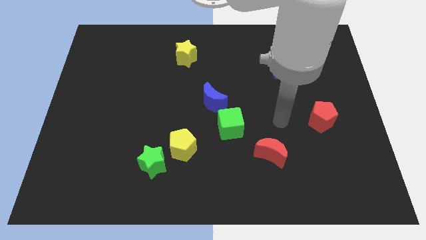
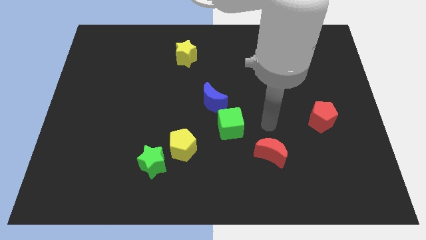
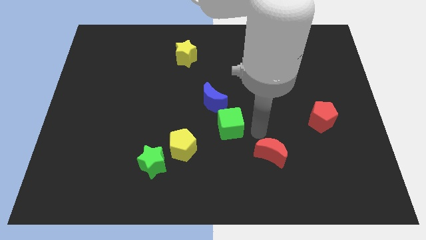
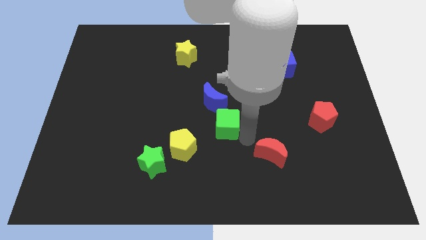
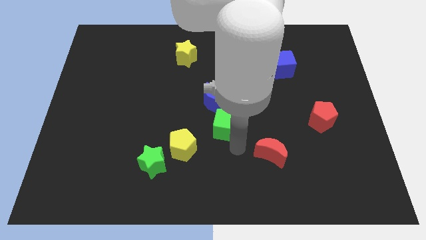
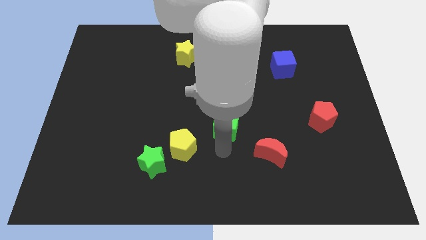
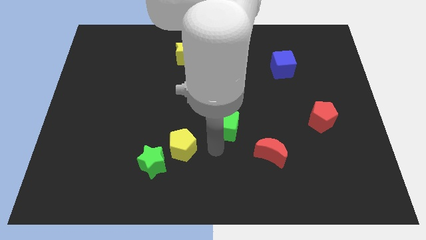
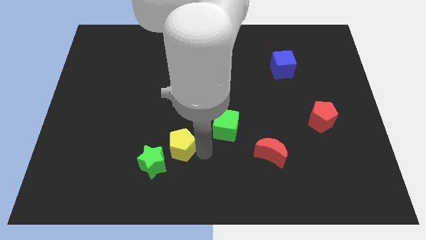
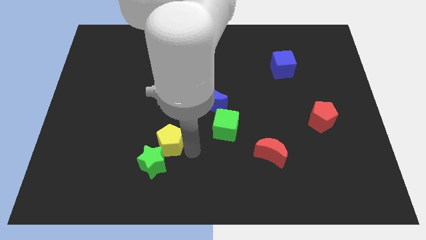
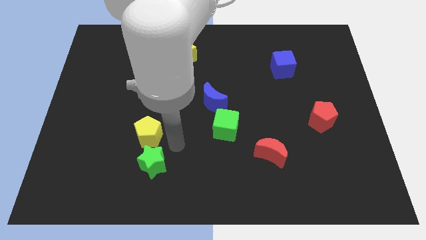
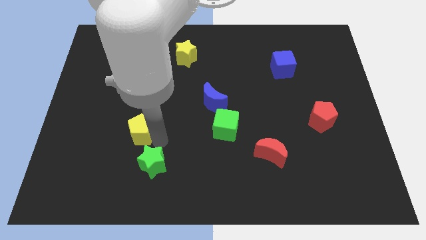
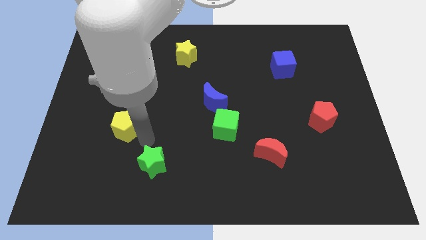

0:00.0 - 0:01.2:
move the green star away from the yellow pentagon

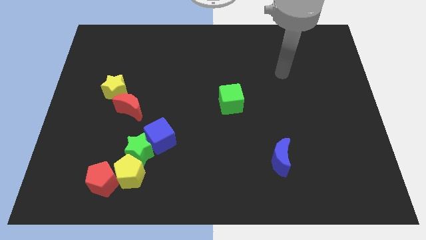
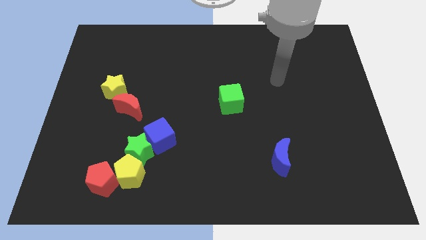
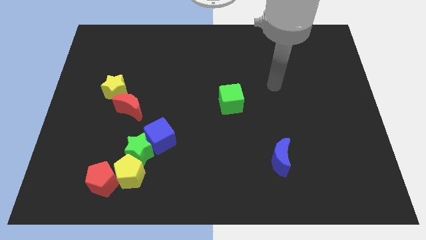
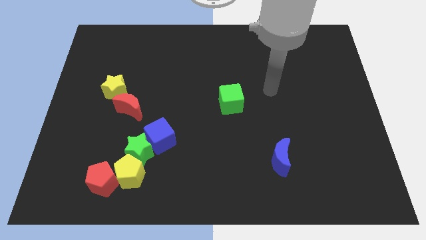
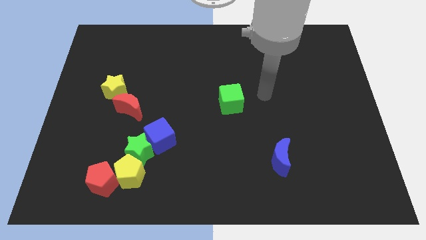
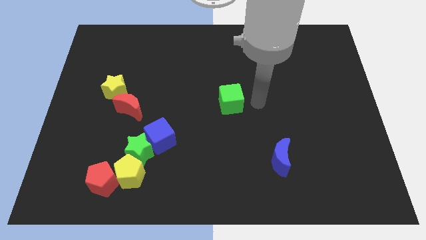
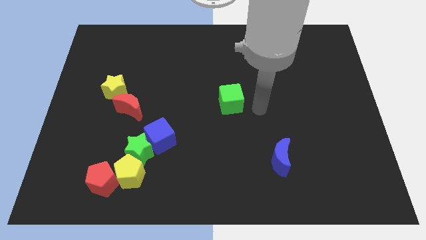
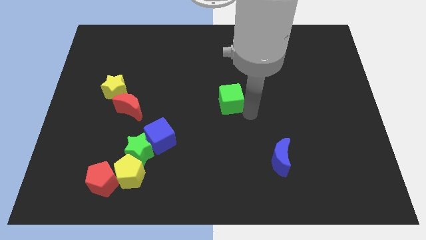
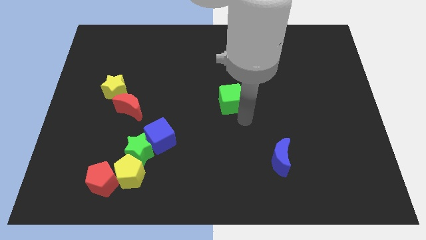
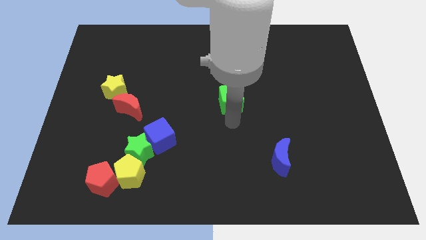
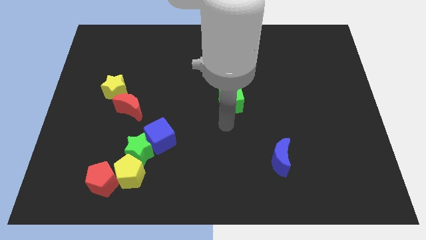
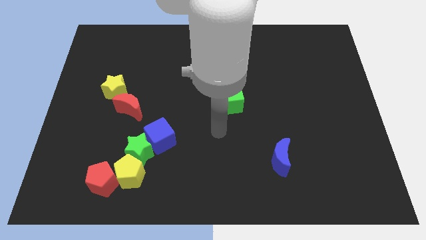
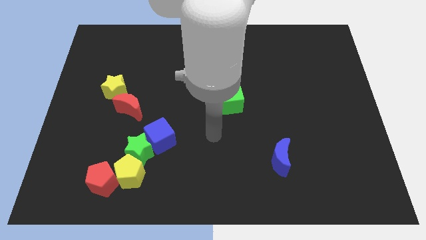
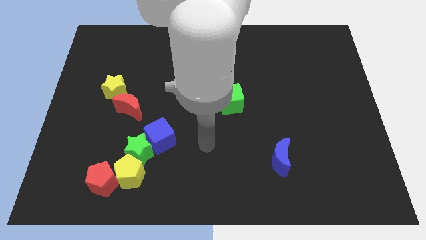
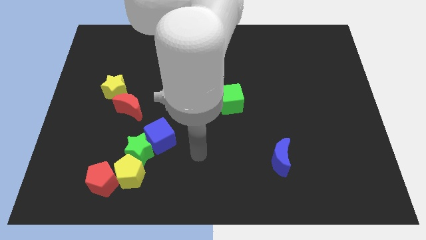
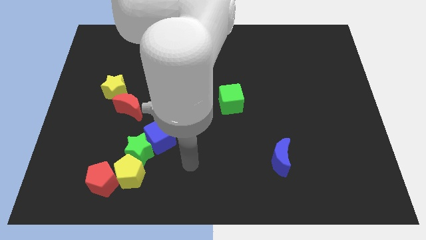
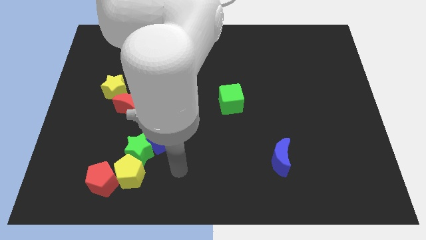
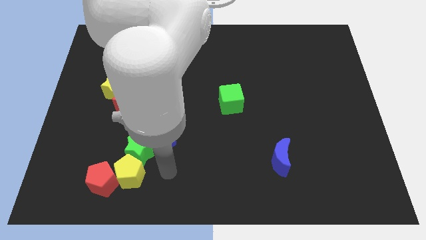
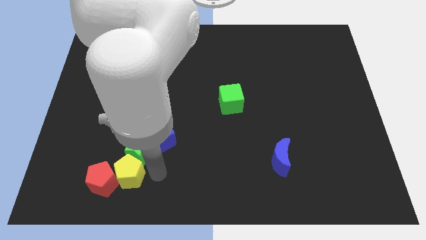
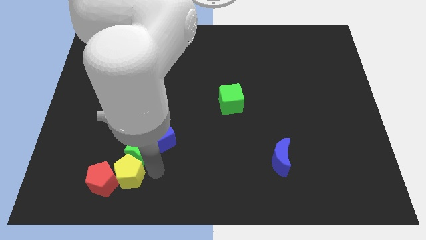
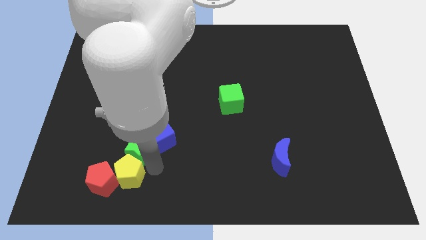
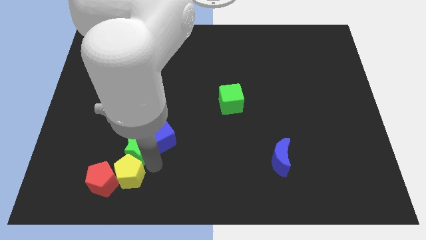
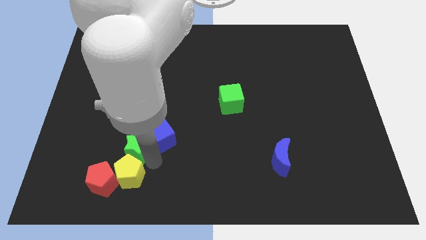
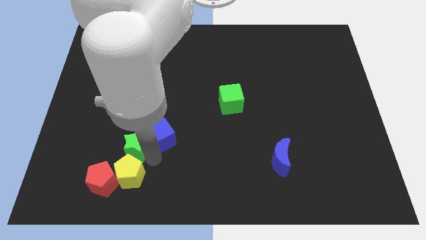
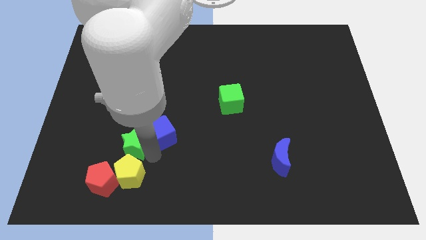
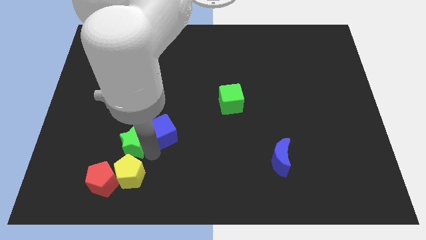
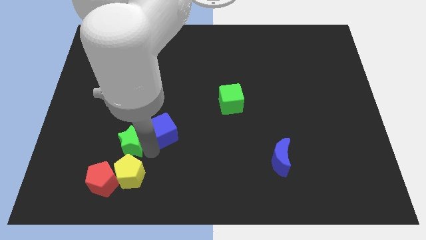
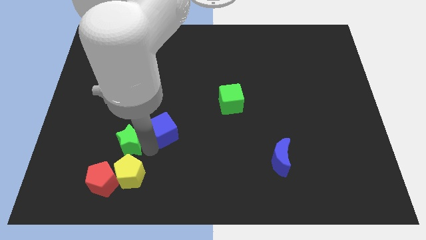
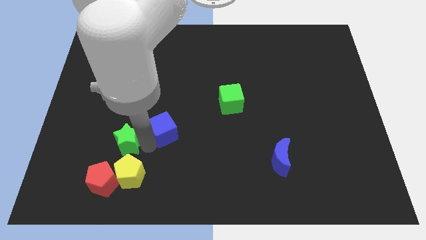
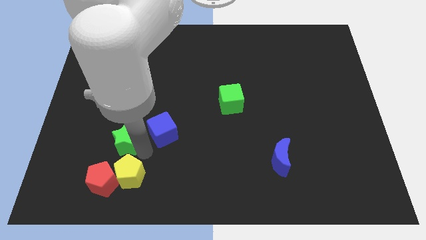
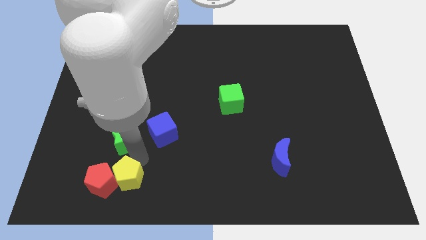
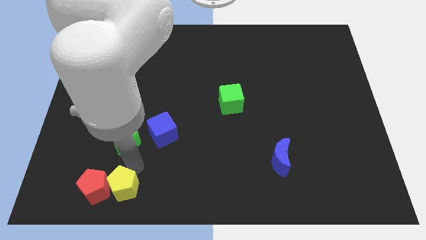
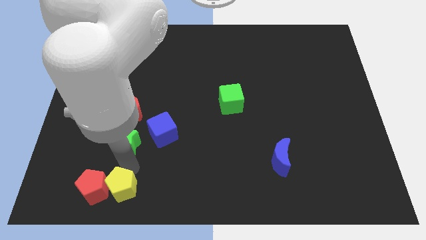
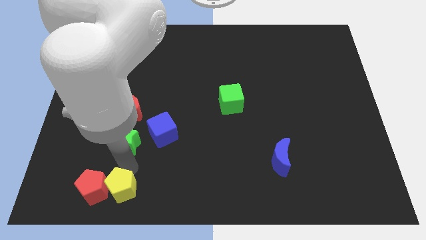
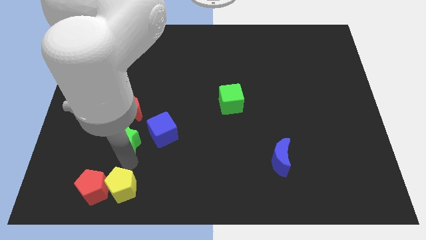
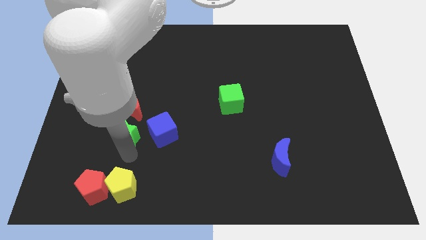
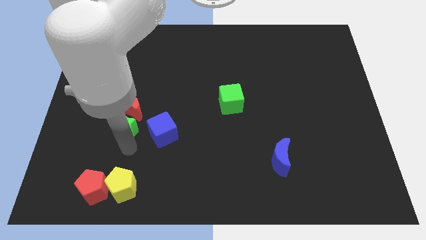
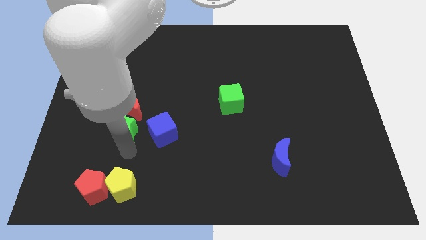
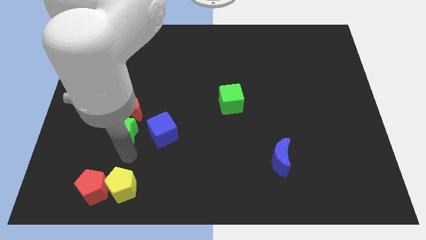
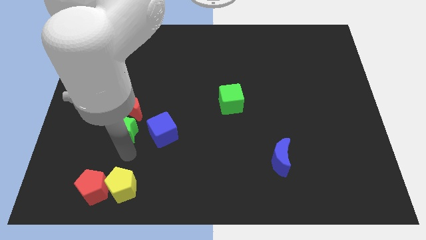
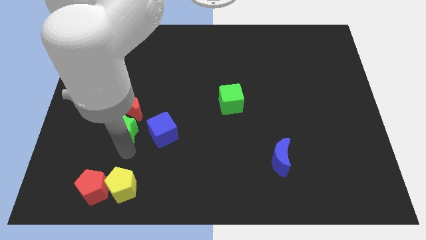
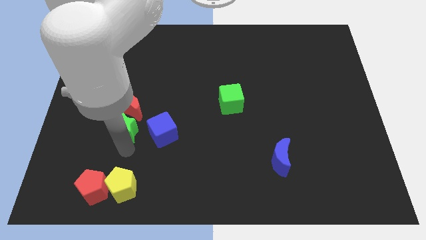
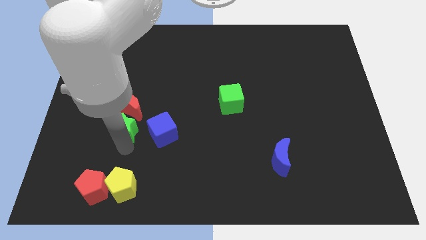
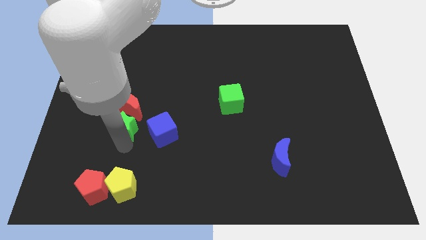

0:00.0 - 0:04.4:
separate the green star from the group of blocks

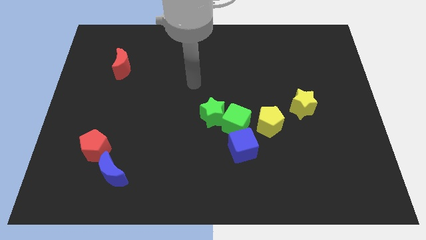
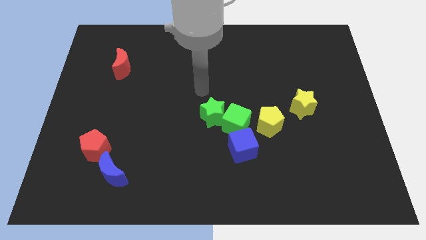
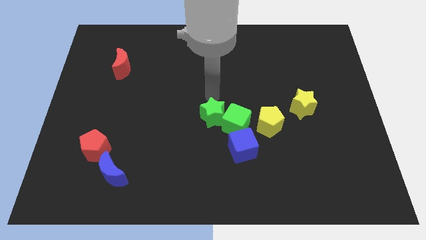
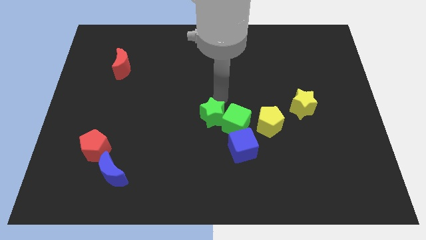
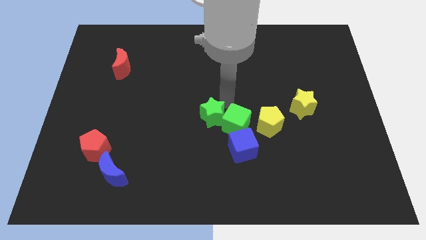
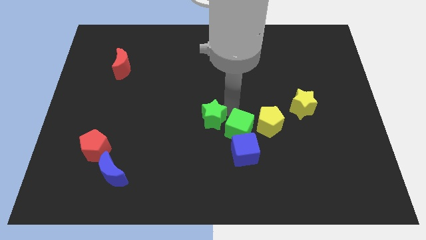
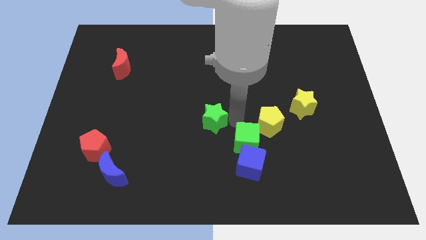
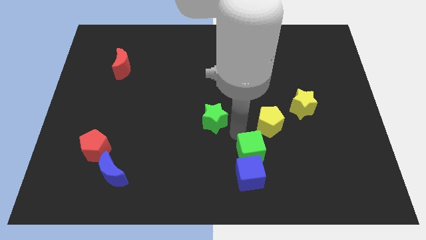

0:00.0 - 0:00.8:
move the green star away from the green cube

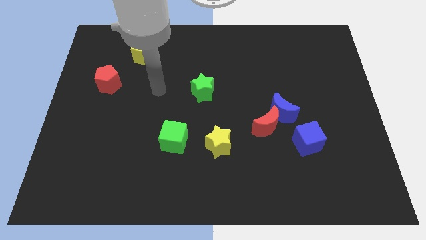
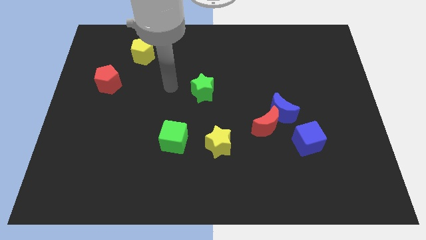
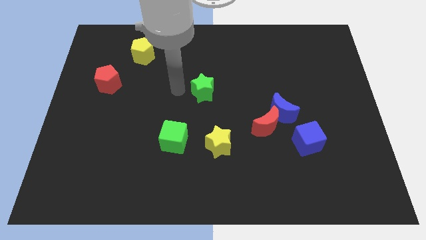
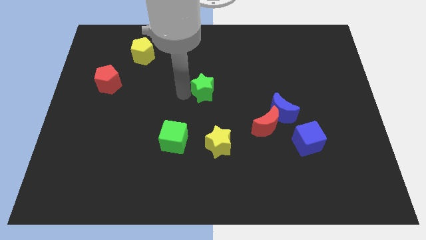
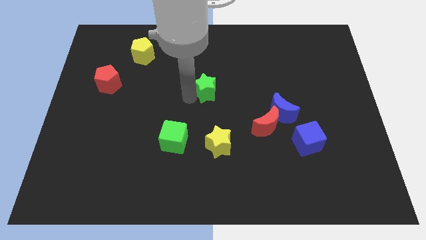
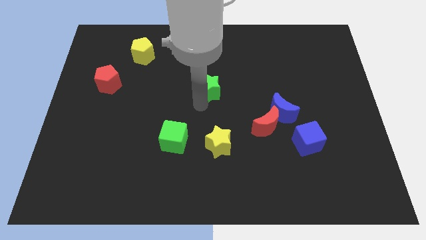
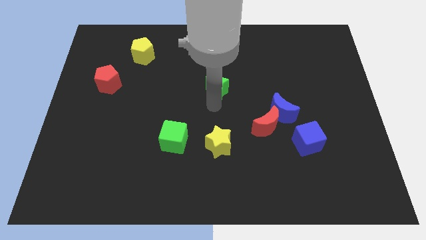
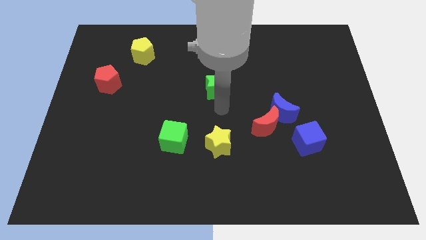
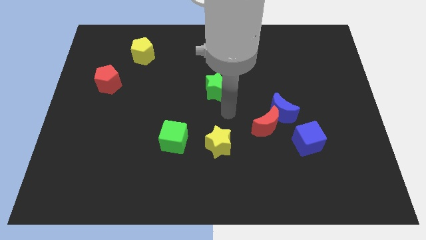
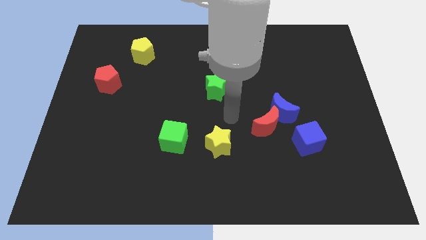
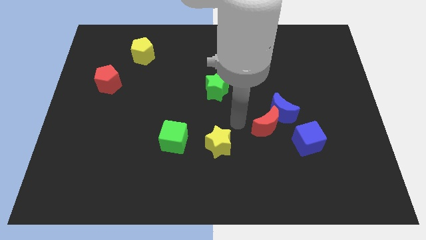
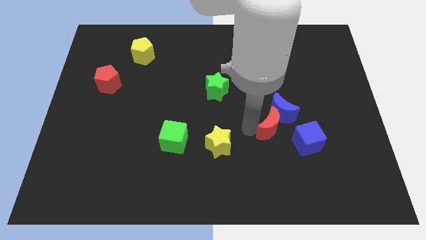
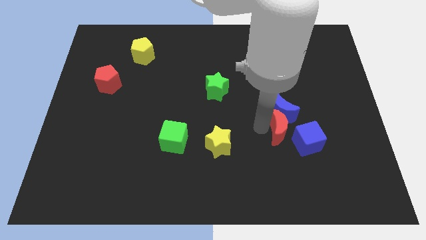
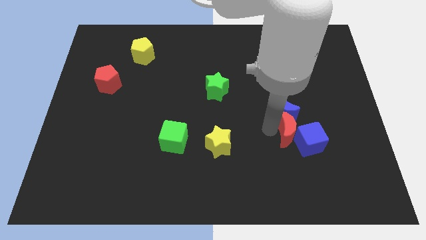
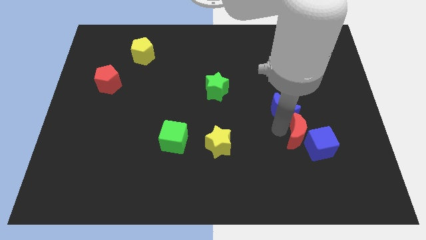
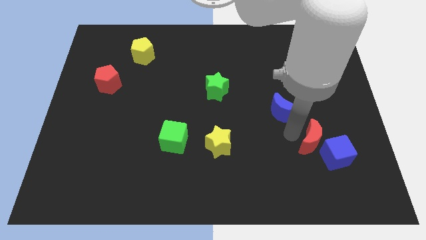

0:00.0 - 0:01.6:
pull the blue moon apart from the red moon and blue cube

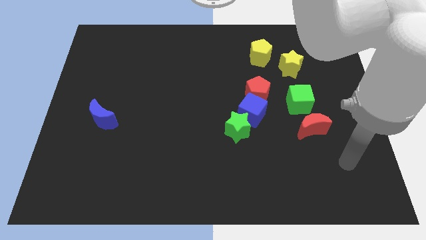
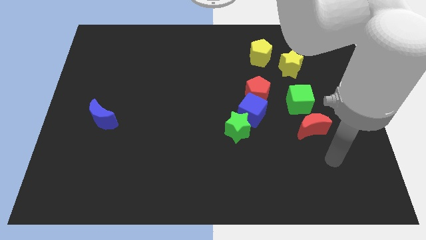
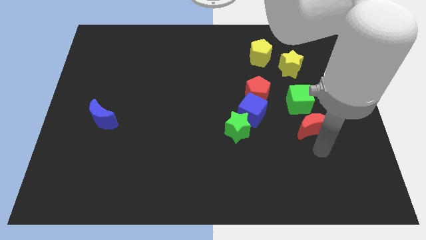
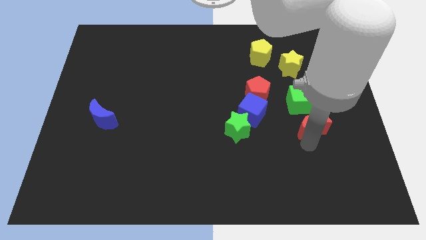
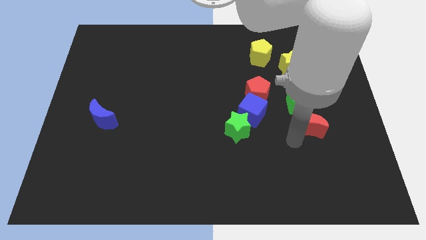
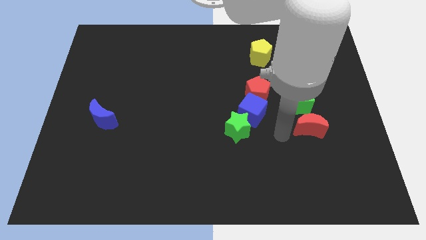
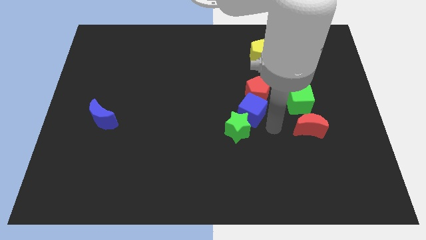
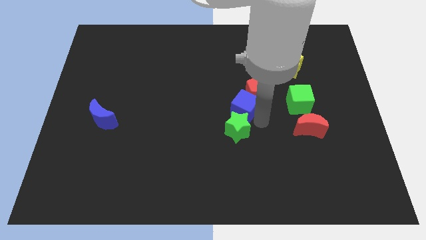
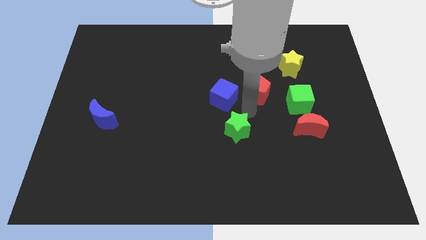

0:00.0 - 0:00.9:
move the green star away from the blue cube

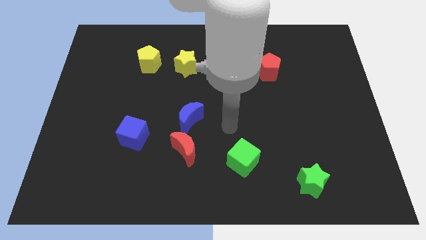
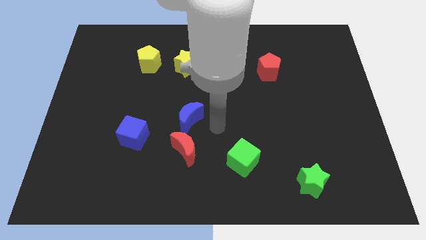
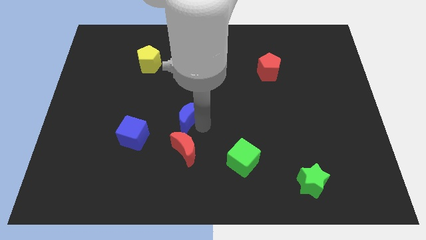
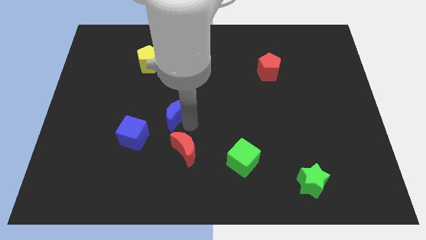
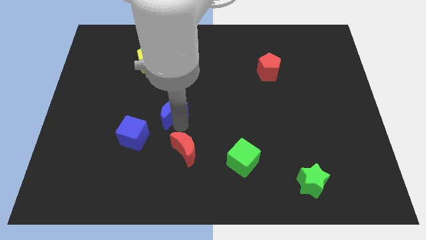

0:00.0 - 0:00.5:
move the red moon away from the blue moon
